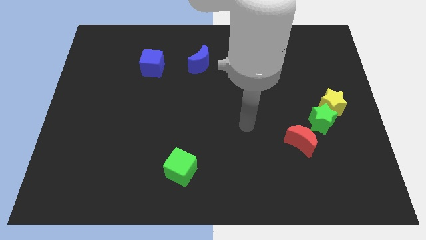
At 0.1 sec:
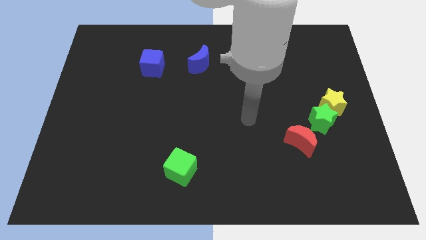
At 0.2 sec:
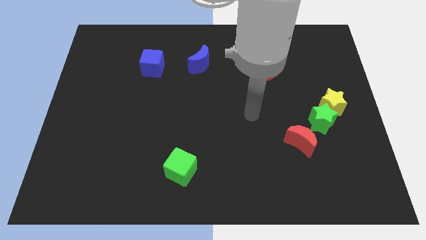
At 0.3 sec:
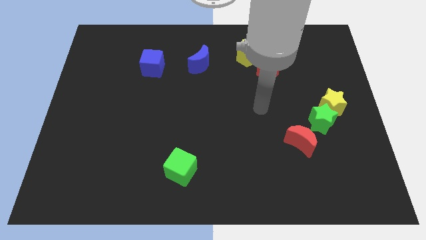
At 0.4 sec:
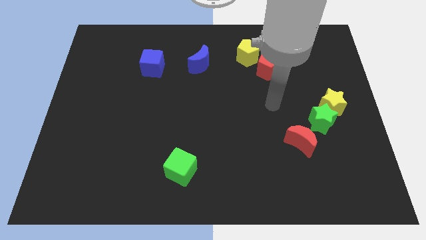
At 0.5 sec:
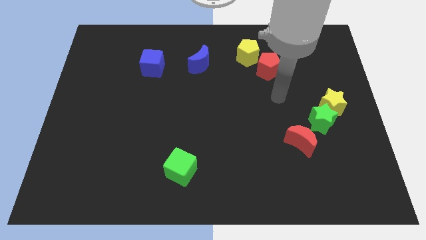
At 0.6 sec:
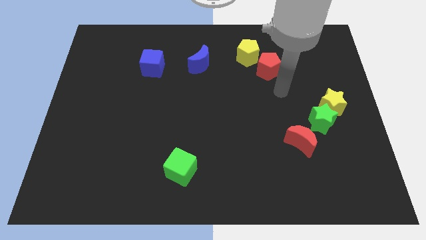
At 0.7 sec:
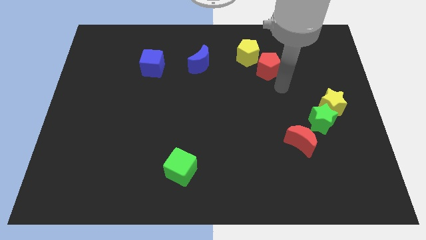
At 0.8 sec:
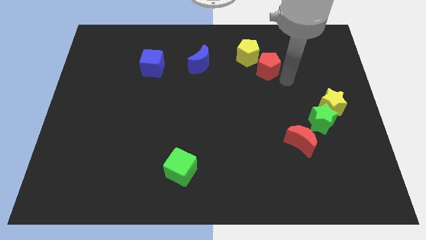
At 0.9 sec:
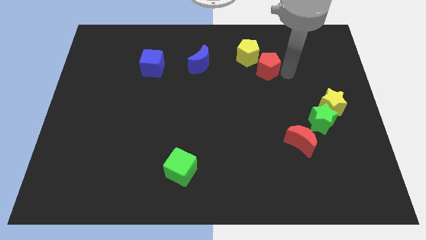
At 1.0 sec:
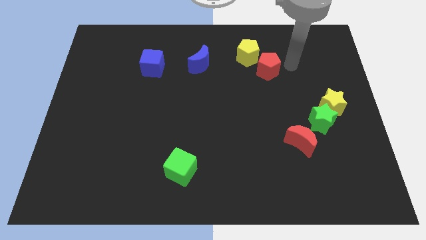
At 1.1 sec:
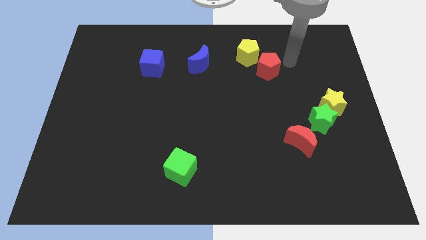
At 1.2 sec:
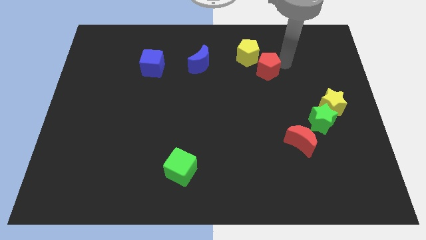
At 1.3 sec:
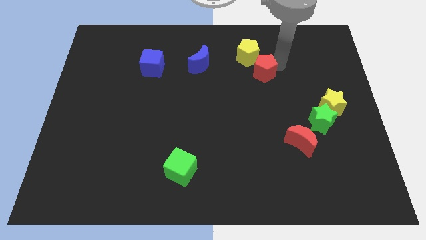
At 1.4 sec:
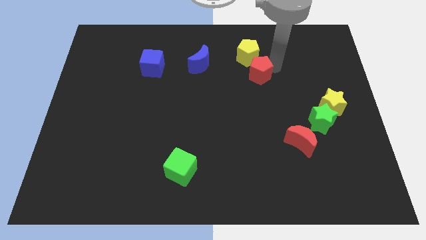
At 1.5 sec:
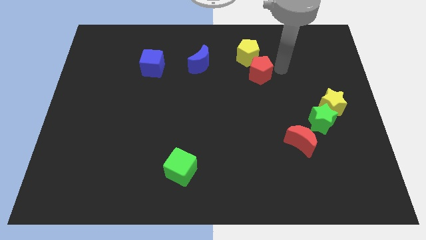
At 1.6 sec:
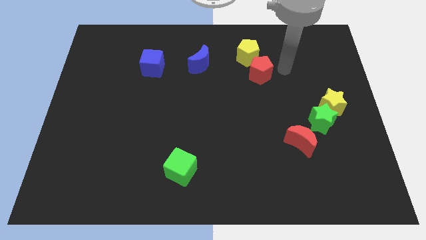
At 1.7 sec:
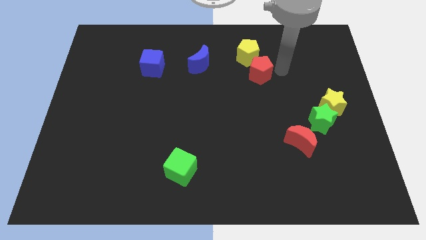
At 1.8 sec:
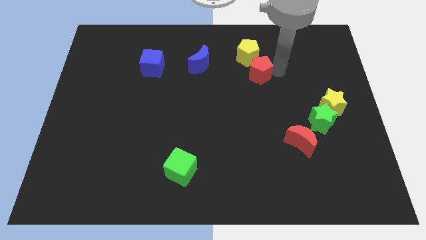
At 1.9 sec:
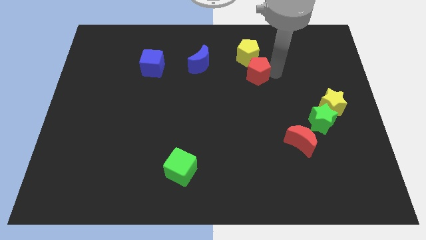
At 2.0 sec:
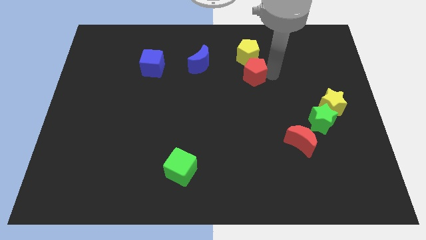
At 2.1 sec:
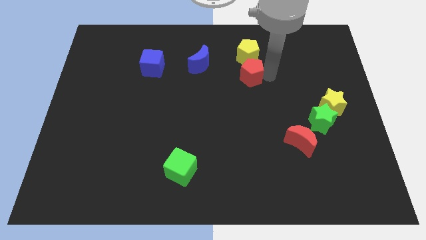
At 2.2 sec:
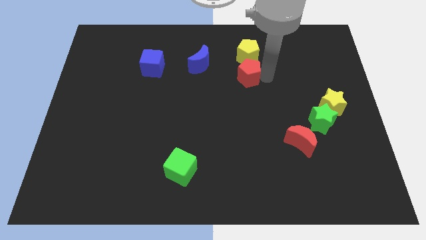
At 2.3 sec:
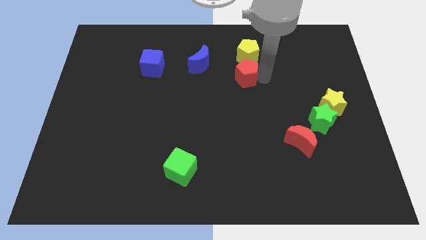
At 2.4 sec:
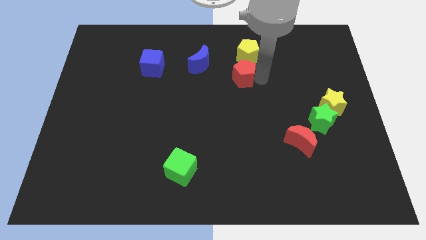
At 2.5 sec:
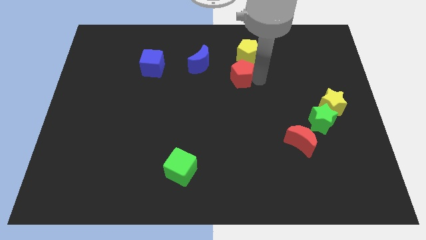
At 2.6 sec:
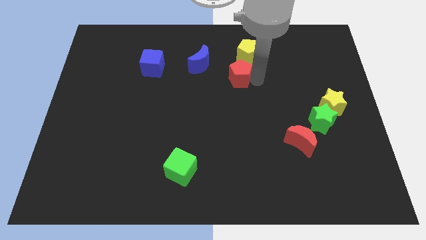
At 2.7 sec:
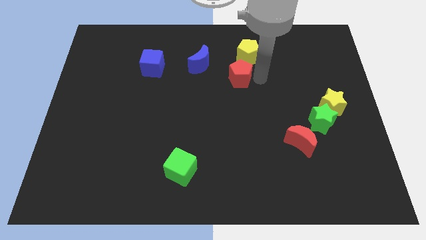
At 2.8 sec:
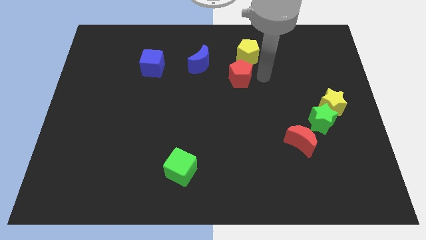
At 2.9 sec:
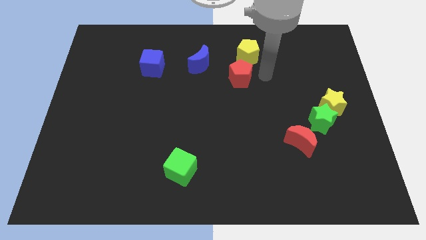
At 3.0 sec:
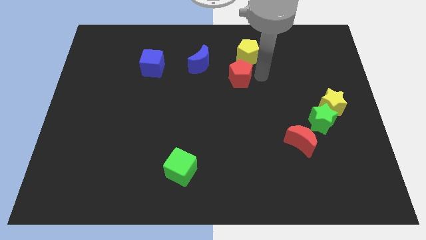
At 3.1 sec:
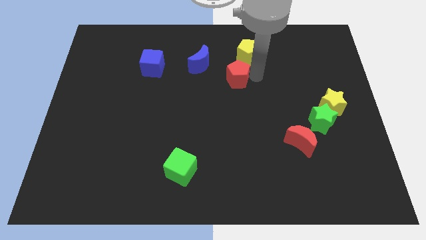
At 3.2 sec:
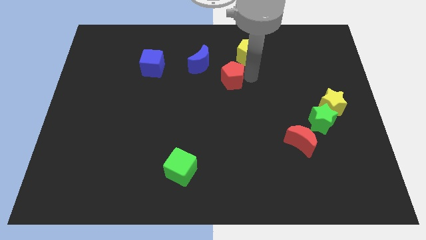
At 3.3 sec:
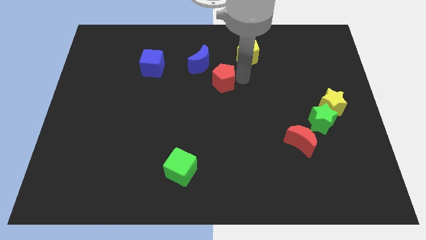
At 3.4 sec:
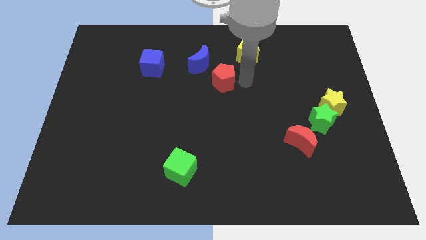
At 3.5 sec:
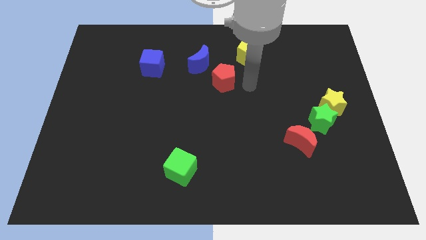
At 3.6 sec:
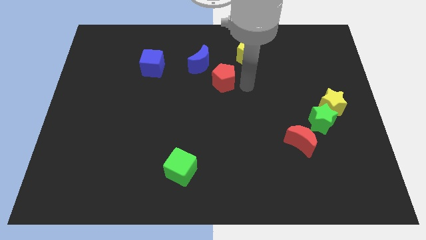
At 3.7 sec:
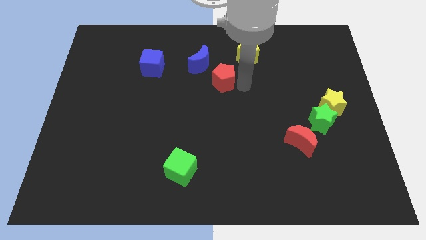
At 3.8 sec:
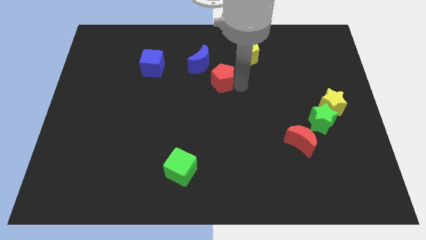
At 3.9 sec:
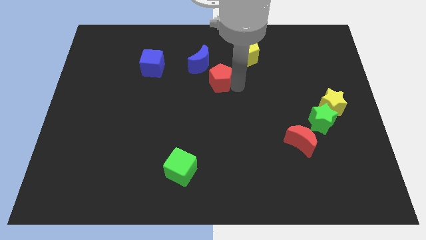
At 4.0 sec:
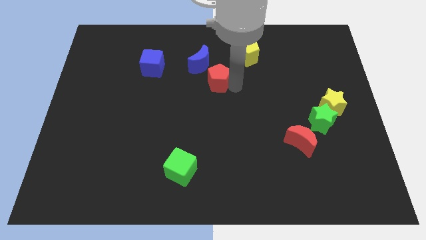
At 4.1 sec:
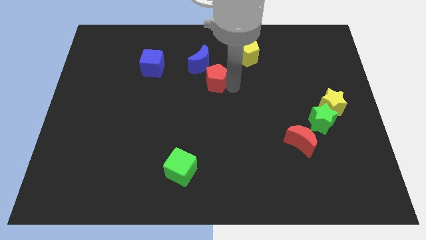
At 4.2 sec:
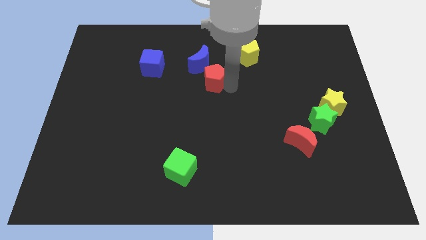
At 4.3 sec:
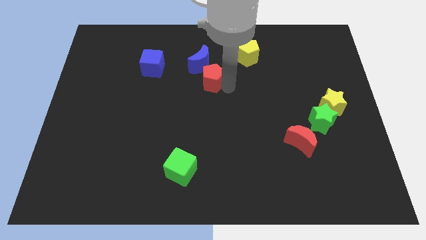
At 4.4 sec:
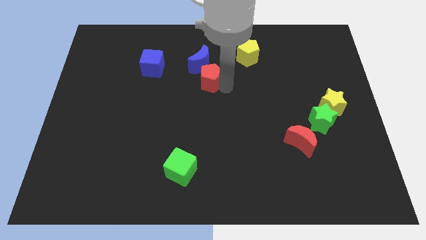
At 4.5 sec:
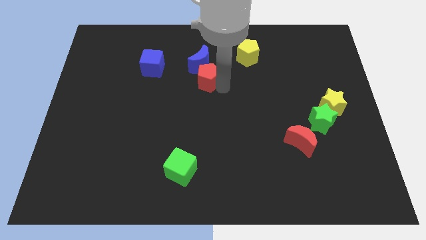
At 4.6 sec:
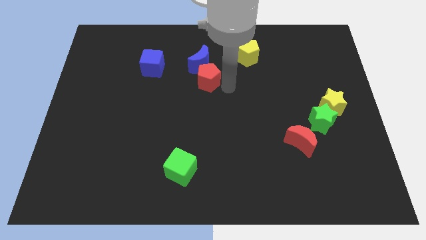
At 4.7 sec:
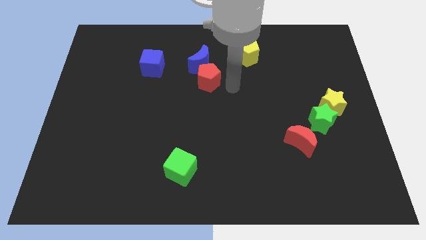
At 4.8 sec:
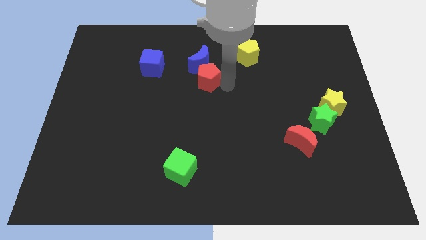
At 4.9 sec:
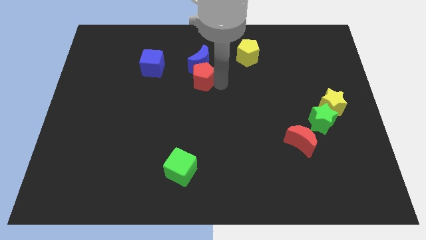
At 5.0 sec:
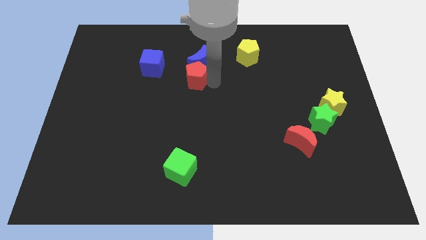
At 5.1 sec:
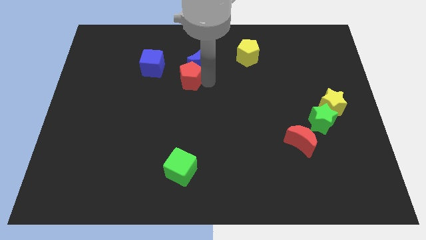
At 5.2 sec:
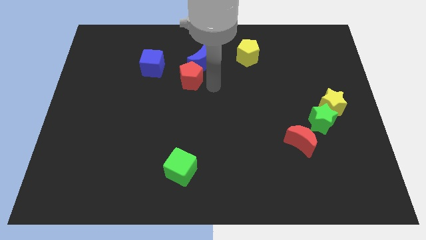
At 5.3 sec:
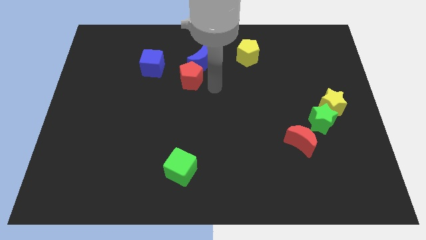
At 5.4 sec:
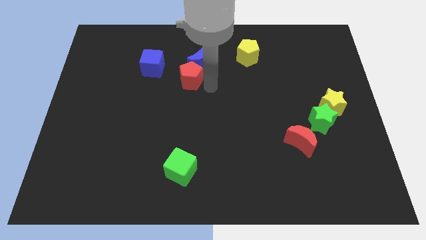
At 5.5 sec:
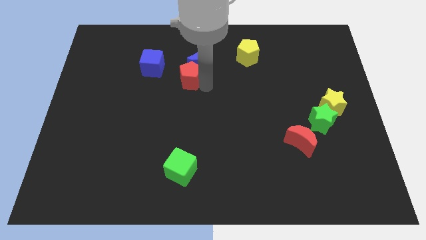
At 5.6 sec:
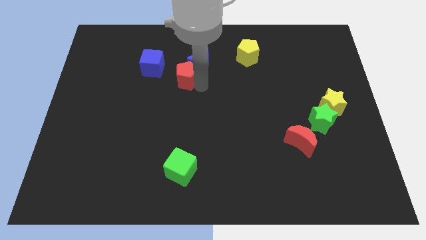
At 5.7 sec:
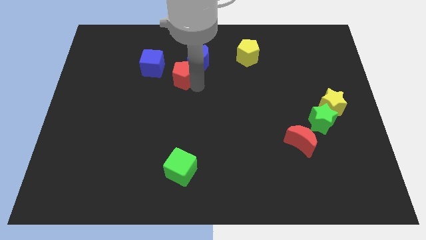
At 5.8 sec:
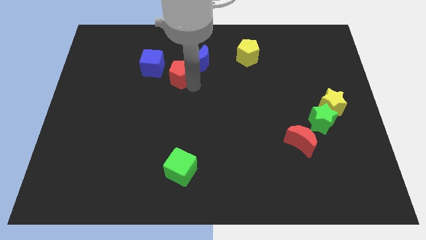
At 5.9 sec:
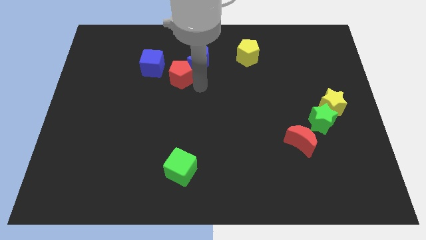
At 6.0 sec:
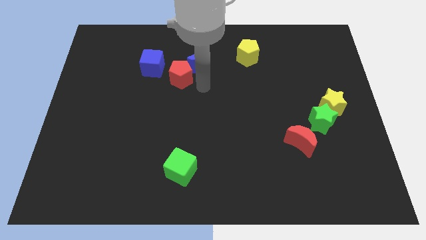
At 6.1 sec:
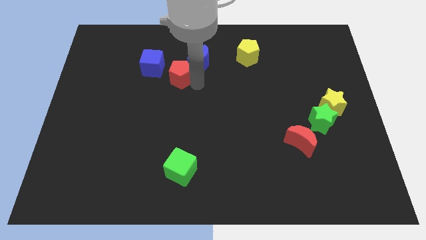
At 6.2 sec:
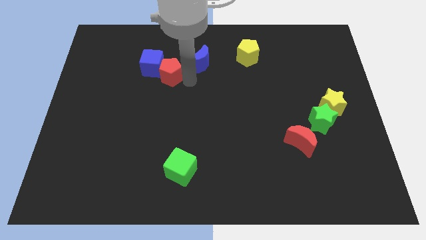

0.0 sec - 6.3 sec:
slide the red pentagon next to the blue cube
